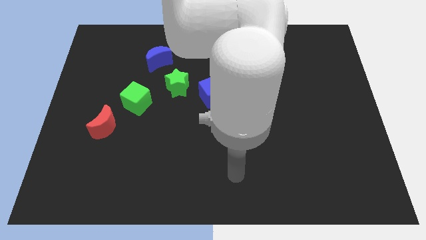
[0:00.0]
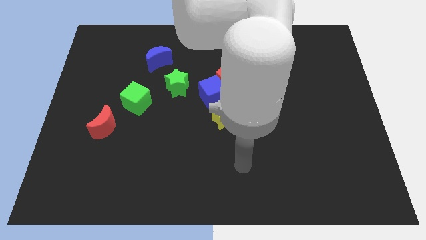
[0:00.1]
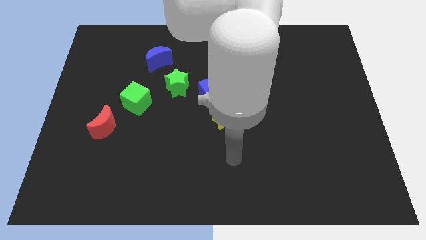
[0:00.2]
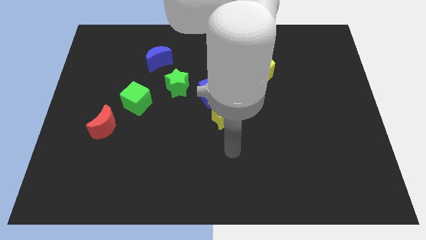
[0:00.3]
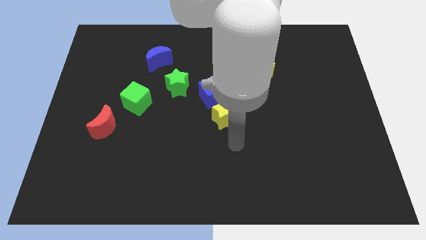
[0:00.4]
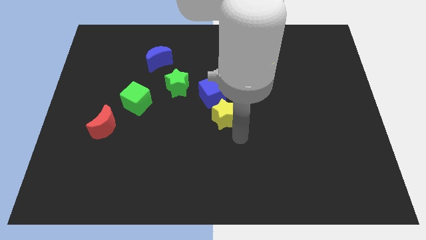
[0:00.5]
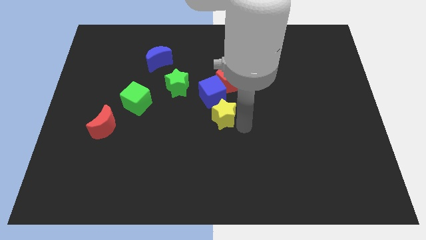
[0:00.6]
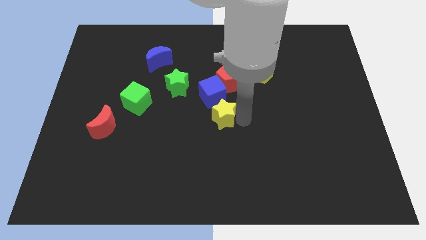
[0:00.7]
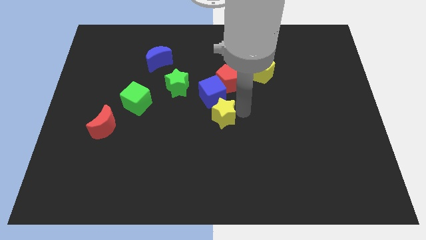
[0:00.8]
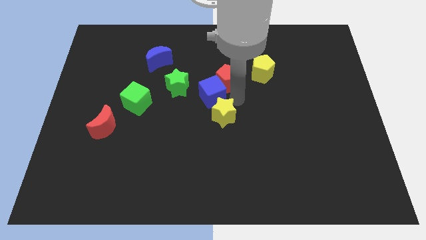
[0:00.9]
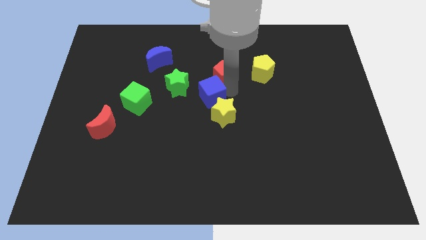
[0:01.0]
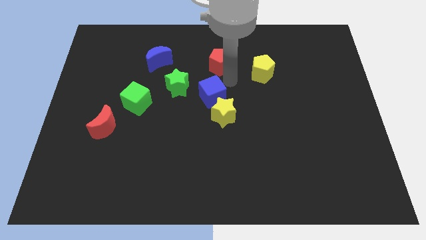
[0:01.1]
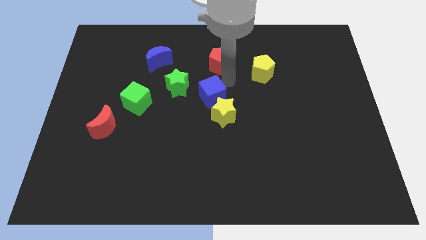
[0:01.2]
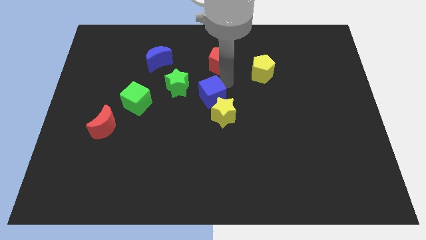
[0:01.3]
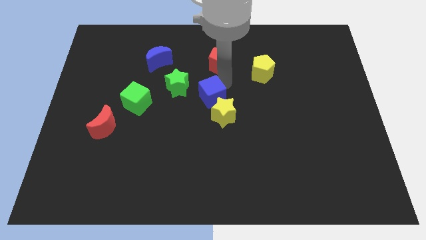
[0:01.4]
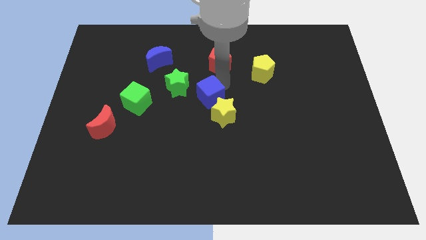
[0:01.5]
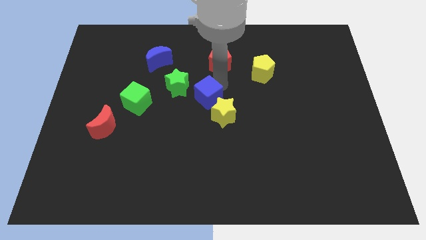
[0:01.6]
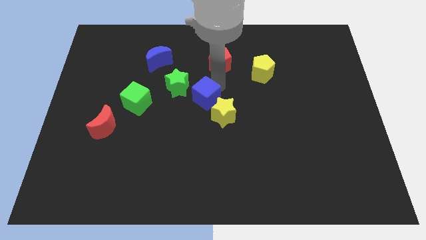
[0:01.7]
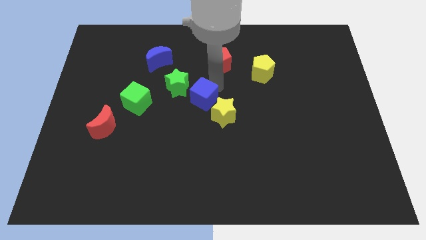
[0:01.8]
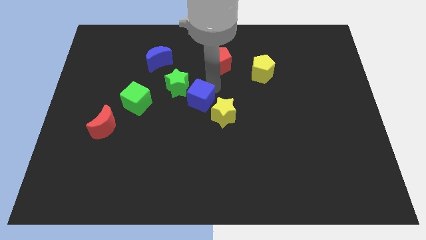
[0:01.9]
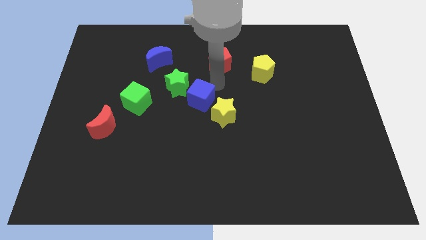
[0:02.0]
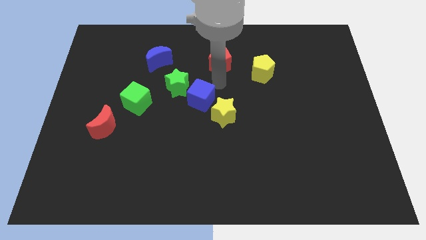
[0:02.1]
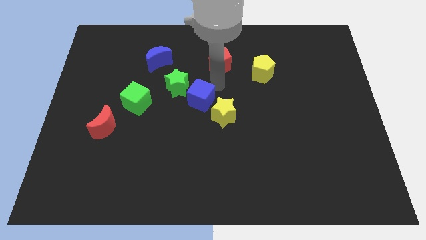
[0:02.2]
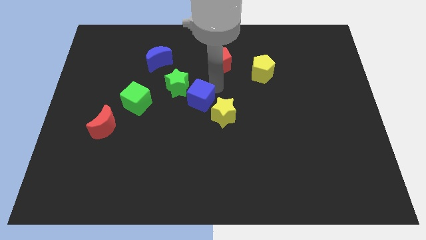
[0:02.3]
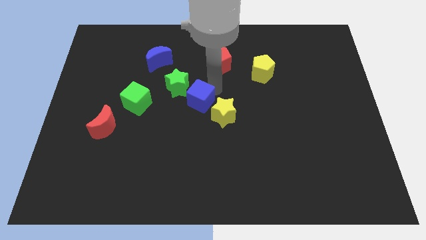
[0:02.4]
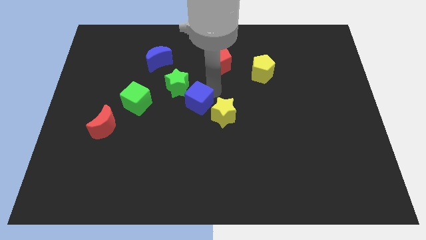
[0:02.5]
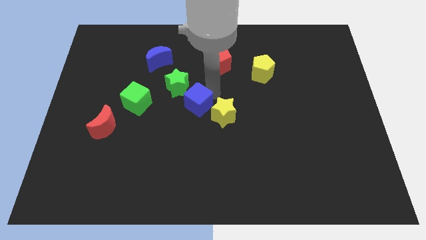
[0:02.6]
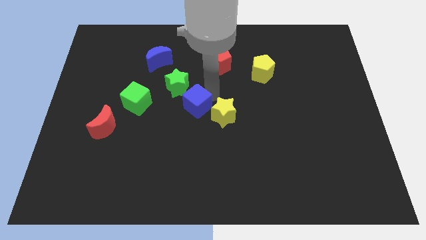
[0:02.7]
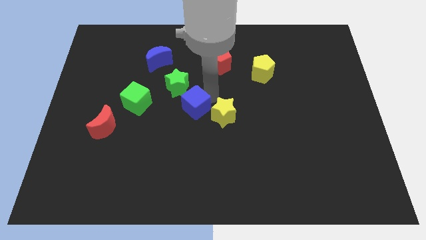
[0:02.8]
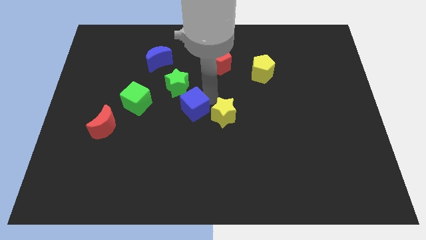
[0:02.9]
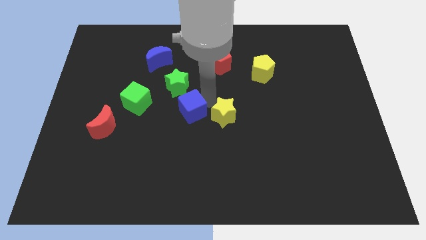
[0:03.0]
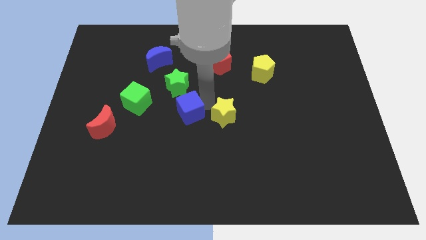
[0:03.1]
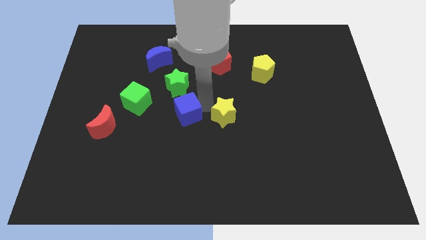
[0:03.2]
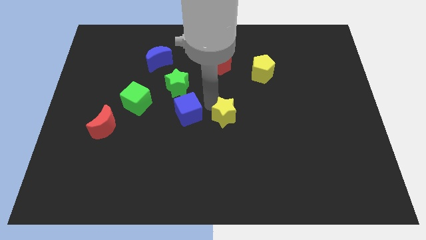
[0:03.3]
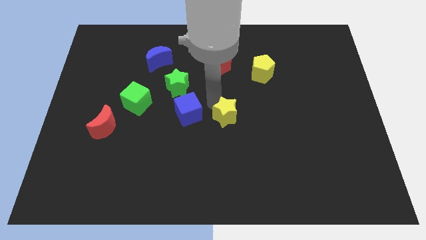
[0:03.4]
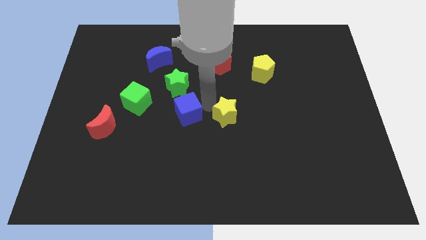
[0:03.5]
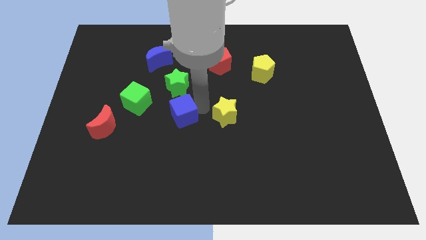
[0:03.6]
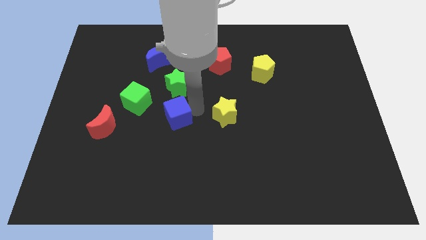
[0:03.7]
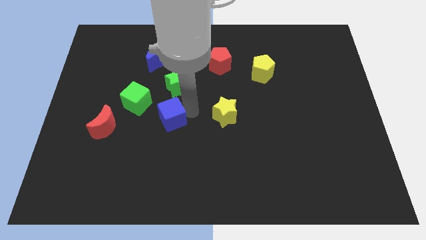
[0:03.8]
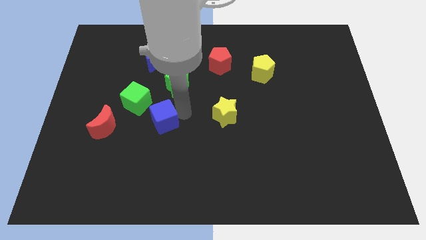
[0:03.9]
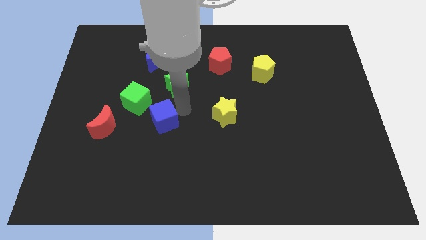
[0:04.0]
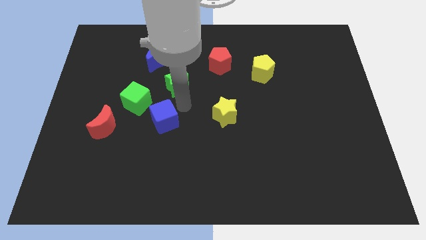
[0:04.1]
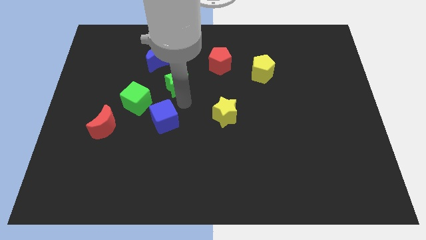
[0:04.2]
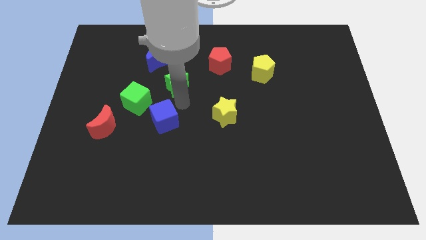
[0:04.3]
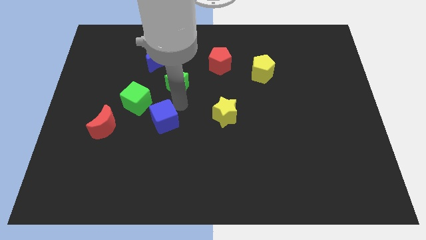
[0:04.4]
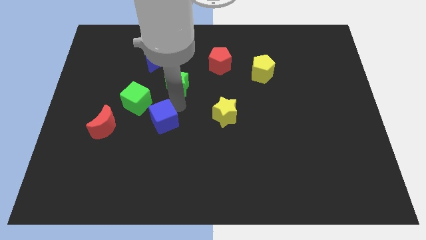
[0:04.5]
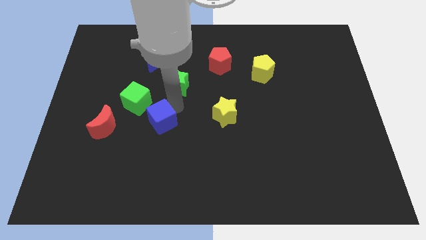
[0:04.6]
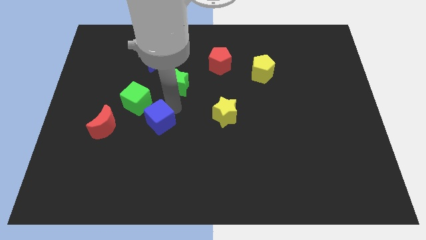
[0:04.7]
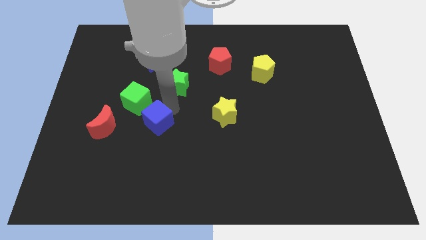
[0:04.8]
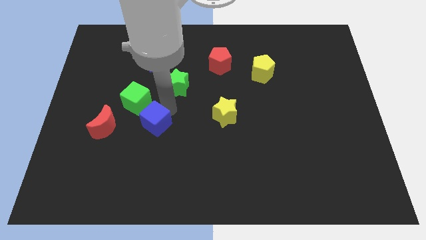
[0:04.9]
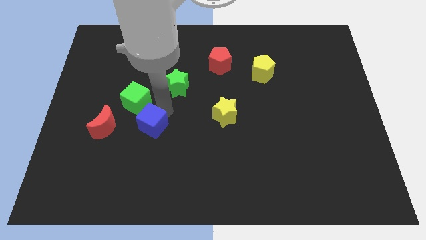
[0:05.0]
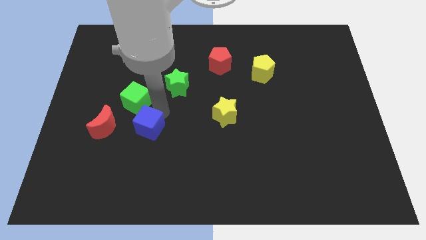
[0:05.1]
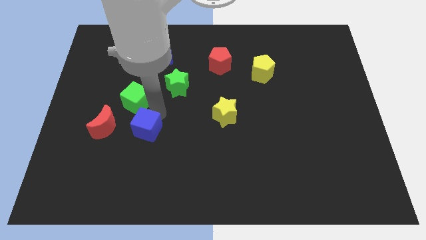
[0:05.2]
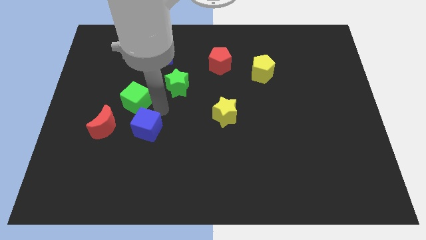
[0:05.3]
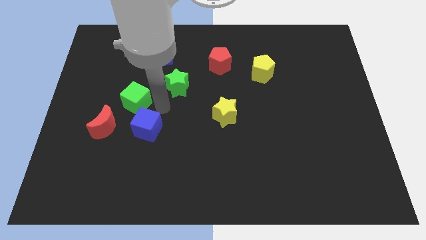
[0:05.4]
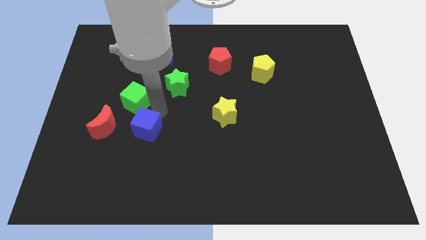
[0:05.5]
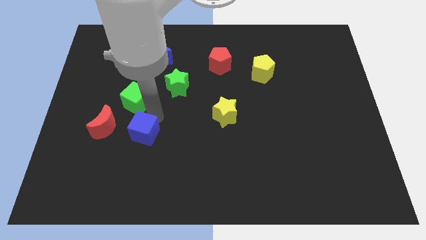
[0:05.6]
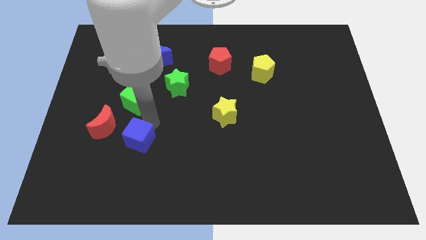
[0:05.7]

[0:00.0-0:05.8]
push the blue cube down and then to the left

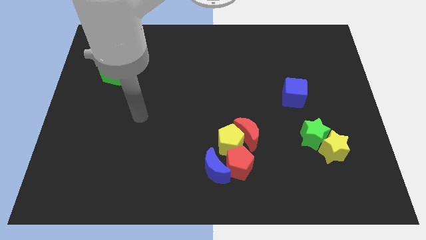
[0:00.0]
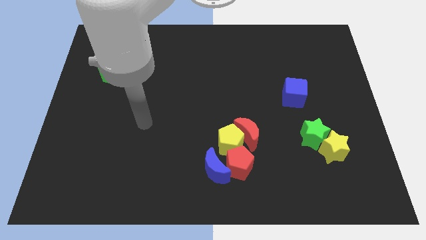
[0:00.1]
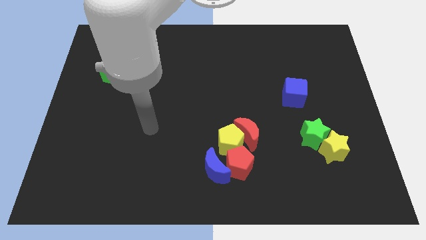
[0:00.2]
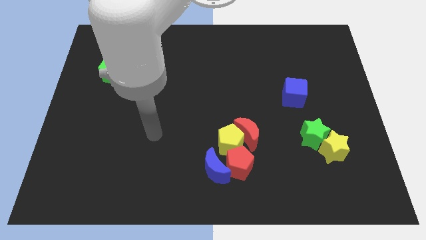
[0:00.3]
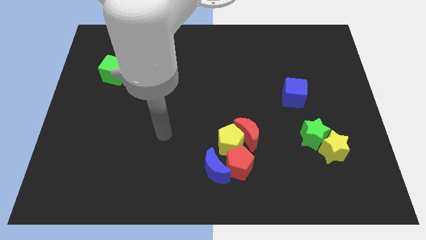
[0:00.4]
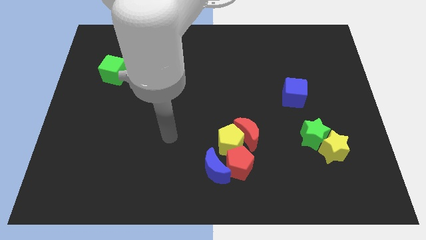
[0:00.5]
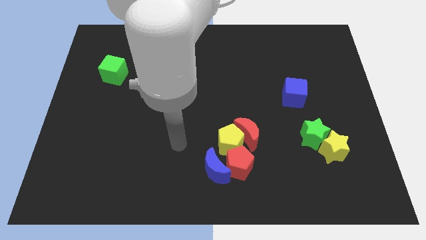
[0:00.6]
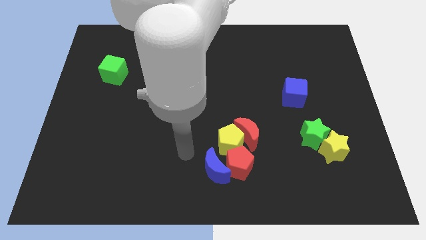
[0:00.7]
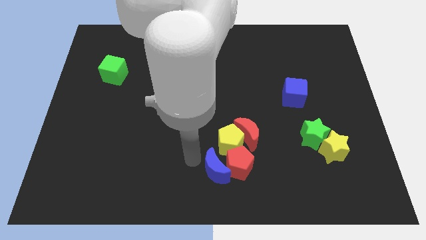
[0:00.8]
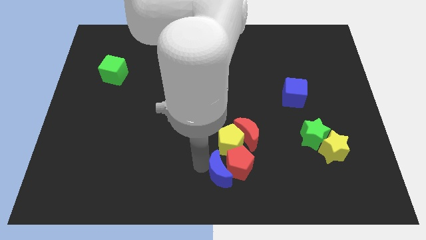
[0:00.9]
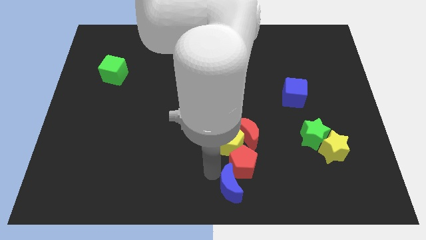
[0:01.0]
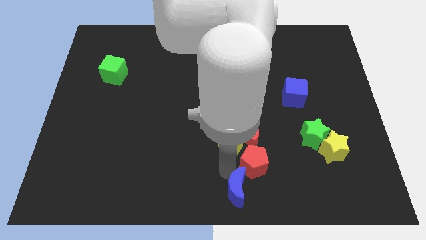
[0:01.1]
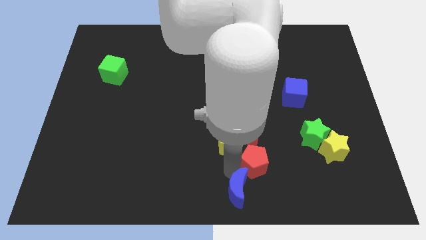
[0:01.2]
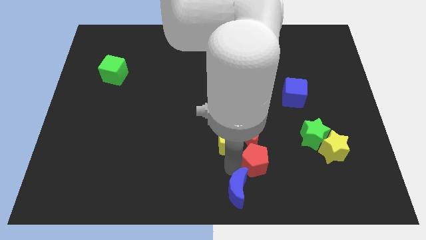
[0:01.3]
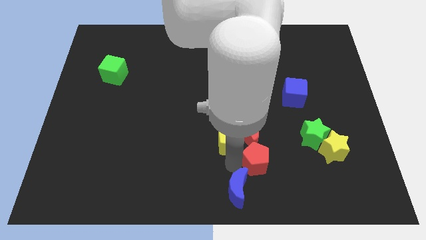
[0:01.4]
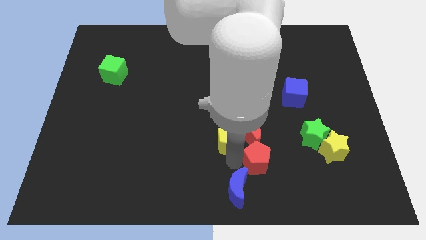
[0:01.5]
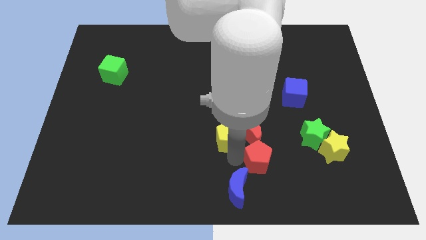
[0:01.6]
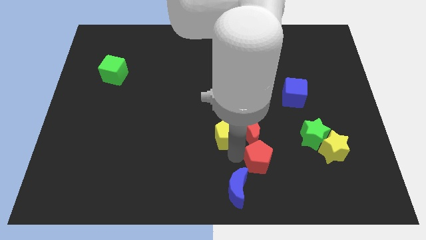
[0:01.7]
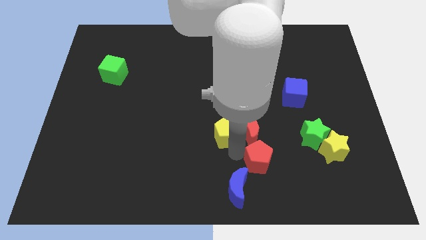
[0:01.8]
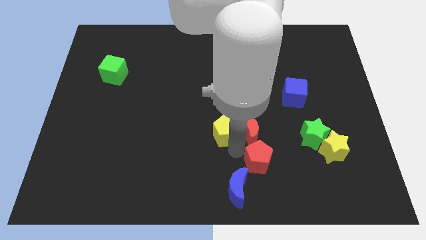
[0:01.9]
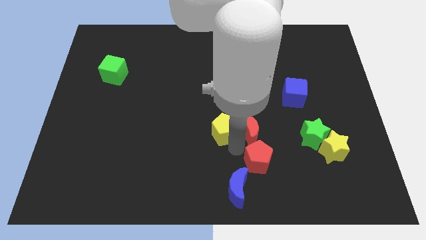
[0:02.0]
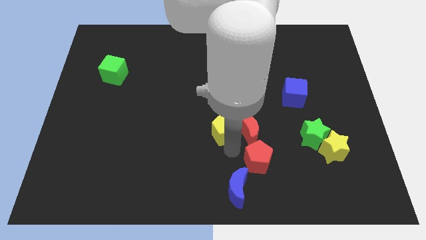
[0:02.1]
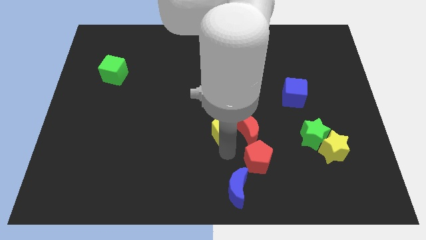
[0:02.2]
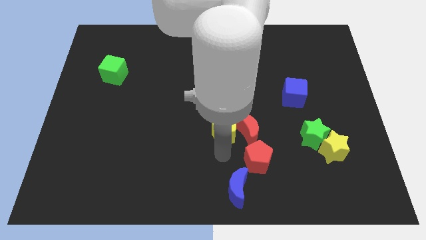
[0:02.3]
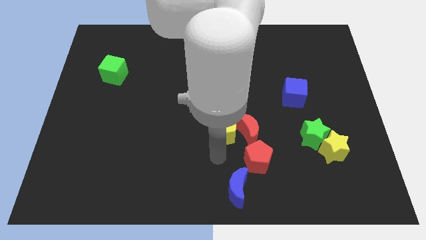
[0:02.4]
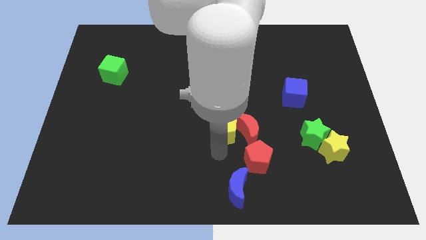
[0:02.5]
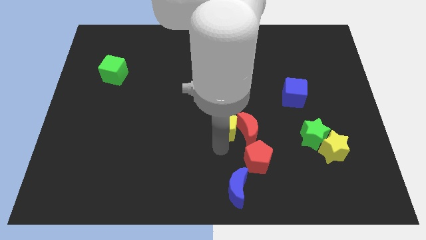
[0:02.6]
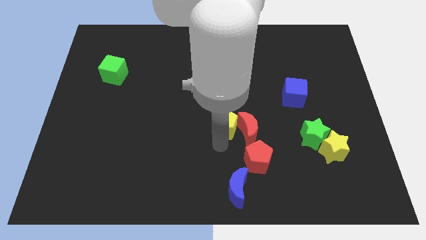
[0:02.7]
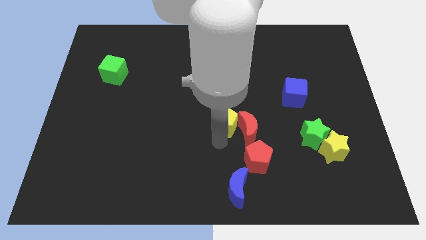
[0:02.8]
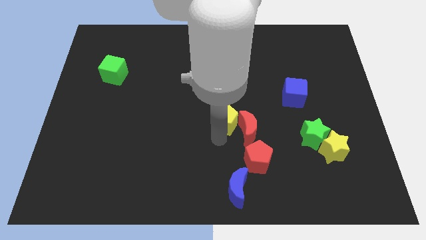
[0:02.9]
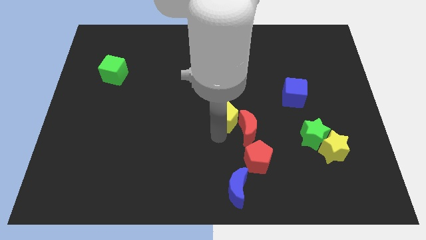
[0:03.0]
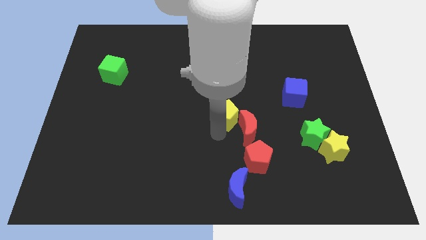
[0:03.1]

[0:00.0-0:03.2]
slightly push the yellow pentagon upwards
